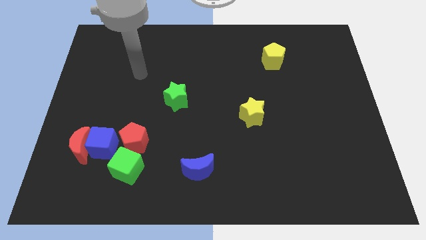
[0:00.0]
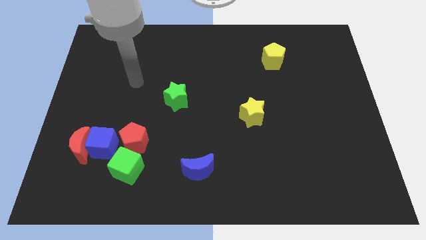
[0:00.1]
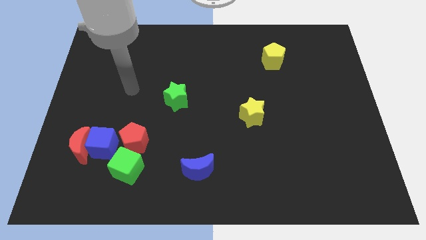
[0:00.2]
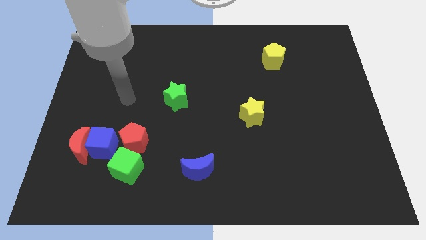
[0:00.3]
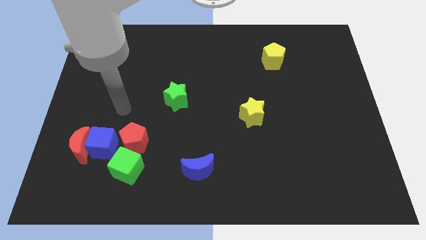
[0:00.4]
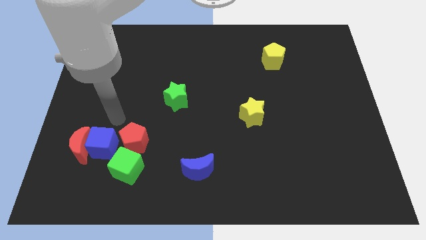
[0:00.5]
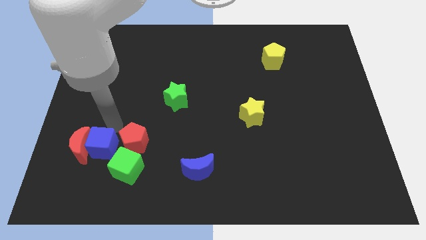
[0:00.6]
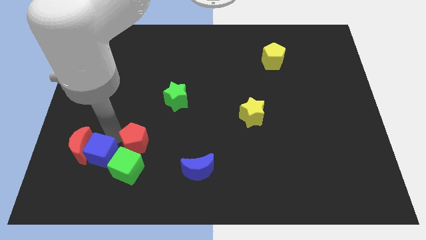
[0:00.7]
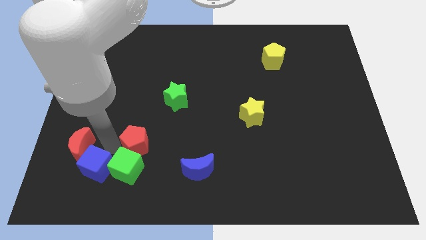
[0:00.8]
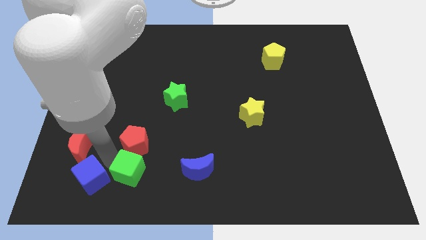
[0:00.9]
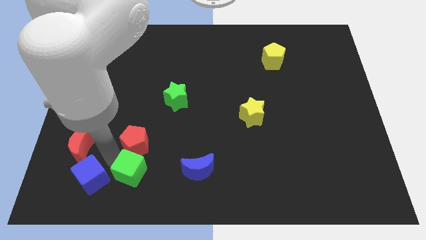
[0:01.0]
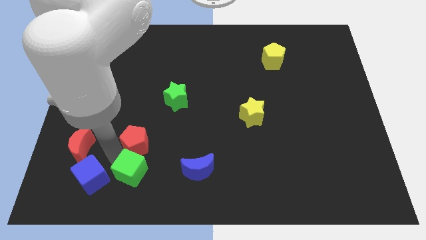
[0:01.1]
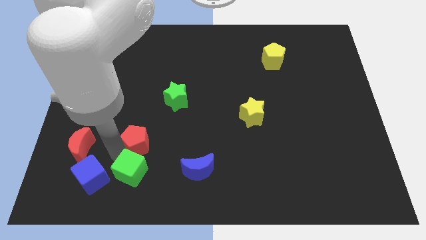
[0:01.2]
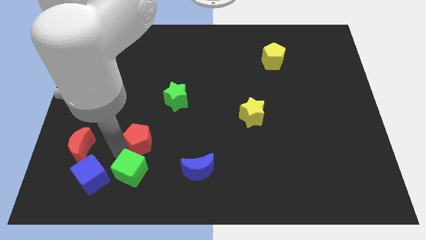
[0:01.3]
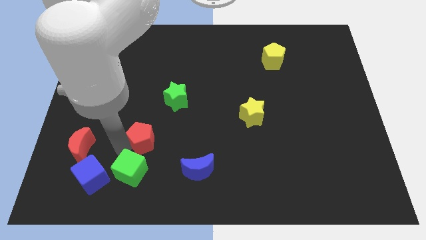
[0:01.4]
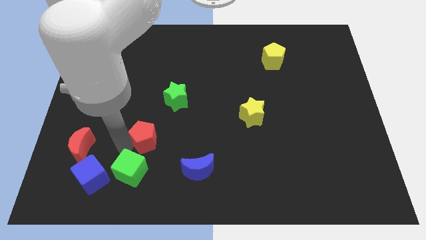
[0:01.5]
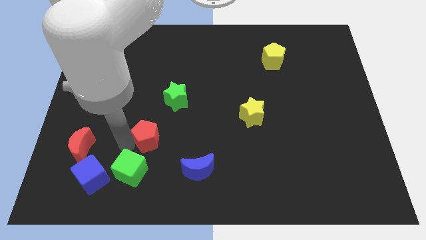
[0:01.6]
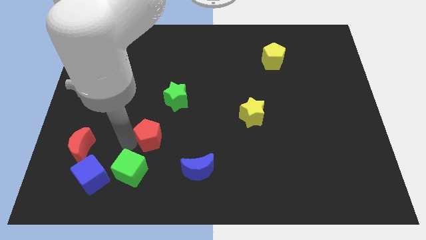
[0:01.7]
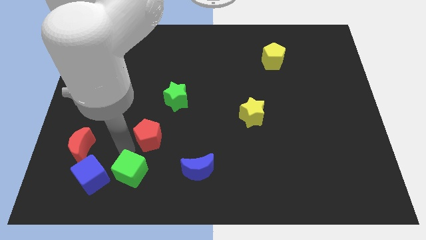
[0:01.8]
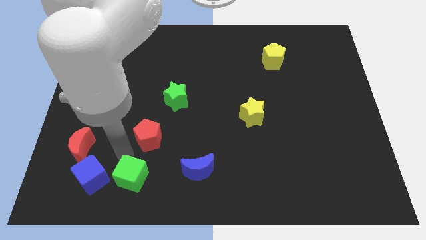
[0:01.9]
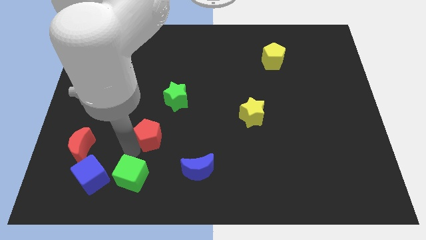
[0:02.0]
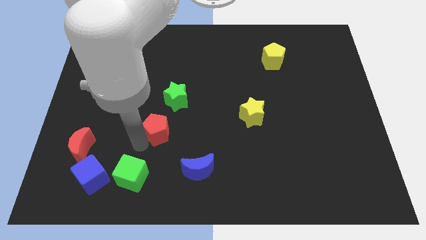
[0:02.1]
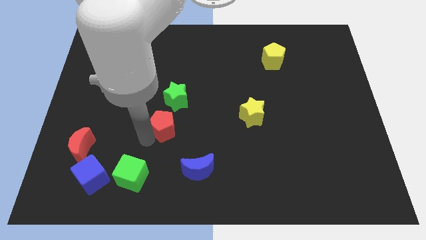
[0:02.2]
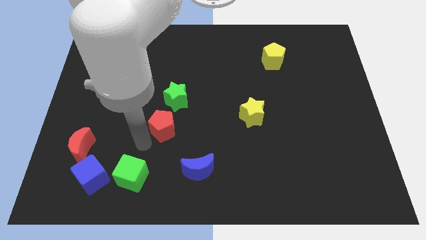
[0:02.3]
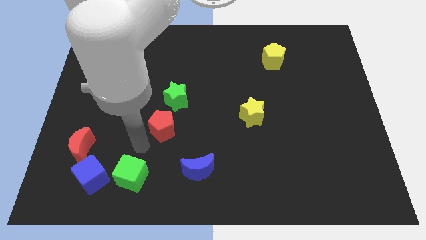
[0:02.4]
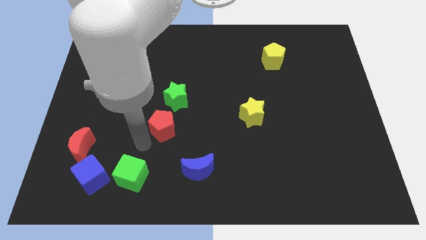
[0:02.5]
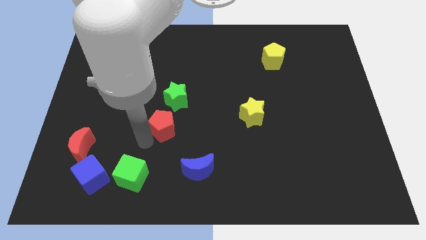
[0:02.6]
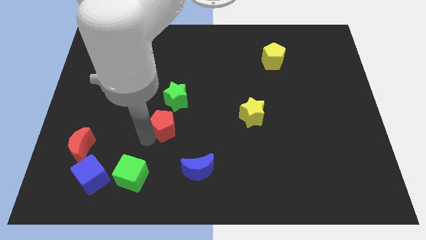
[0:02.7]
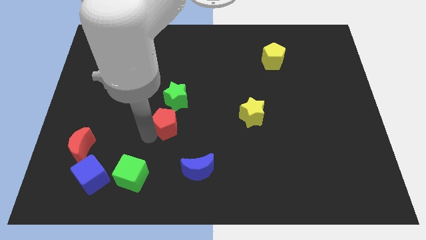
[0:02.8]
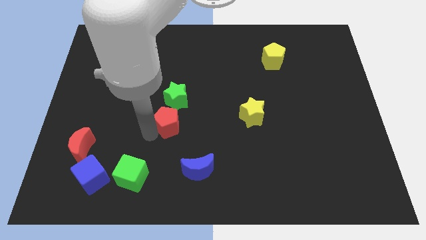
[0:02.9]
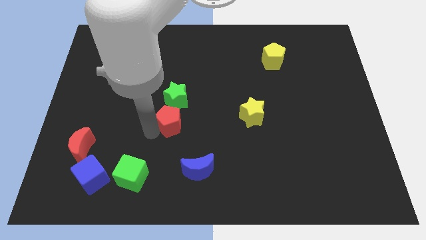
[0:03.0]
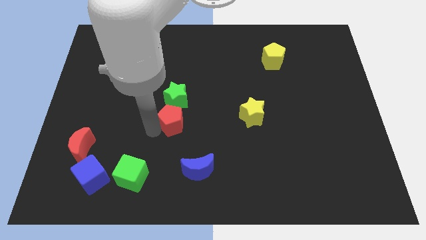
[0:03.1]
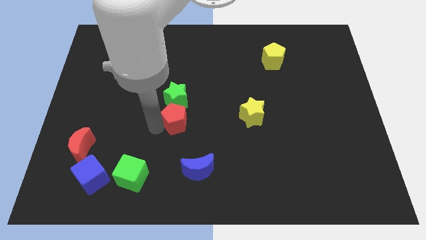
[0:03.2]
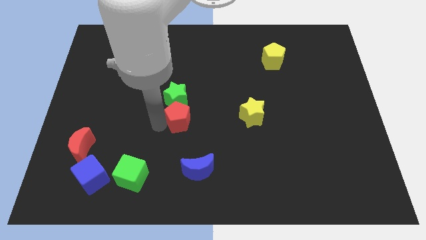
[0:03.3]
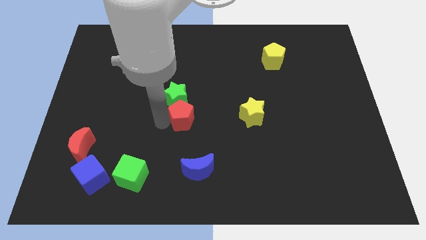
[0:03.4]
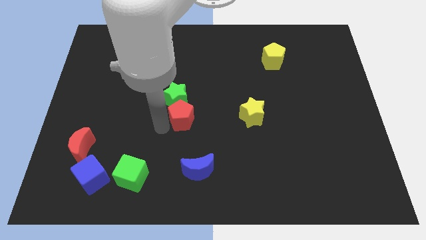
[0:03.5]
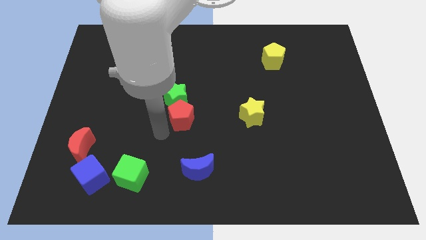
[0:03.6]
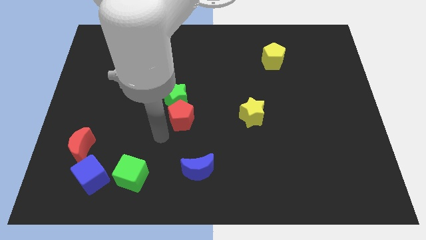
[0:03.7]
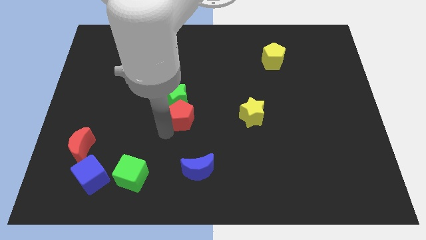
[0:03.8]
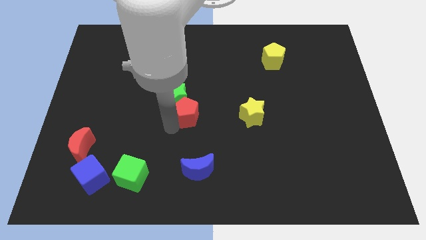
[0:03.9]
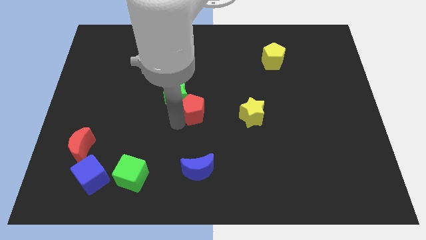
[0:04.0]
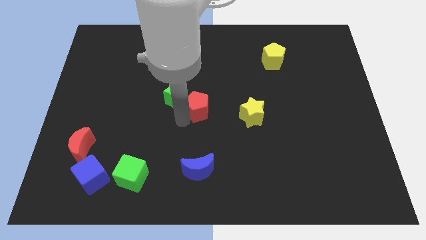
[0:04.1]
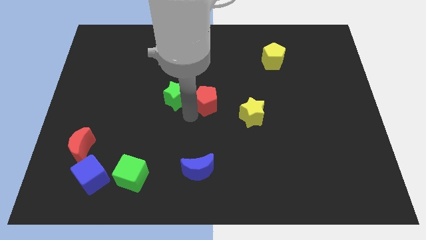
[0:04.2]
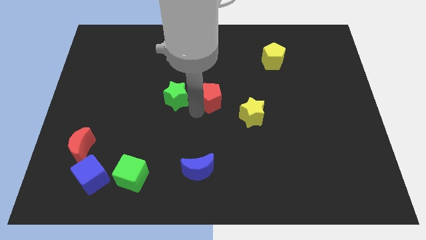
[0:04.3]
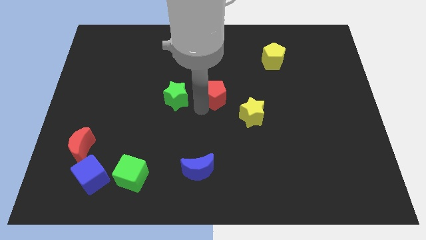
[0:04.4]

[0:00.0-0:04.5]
move the red pentagon upwards and then right

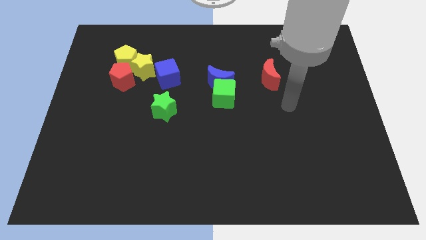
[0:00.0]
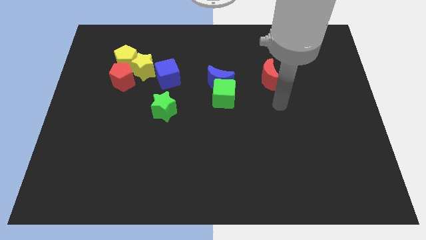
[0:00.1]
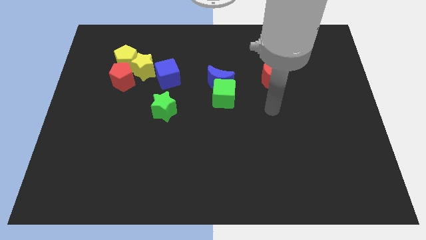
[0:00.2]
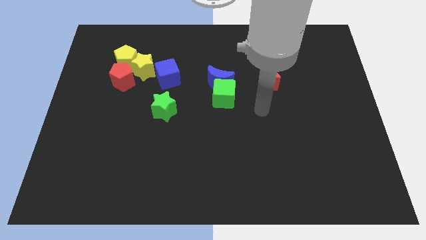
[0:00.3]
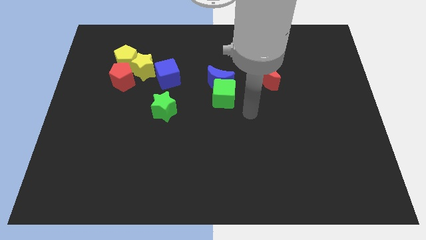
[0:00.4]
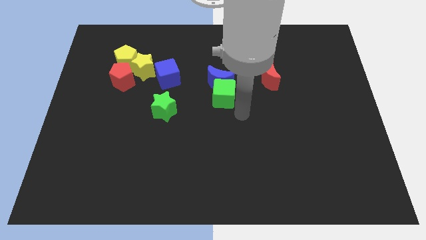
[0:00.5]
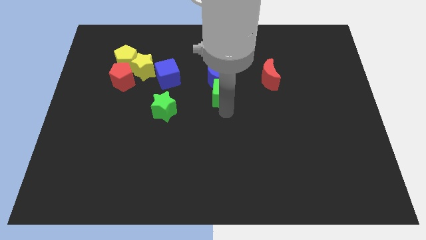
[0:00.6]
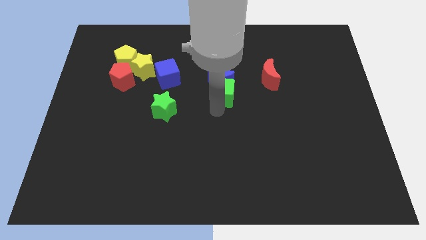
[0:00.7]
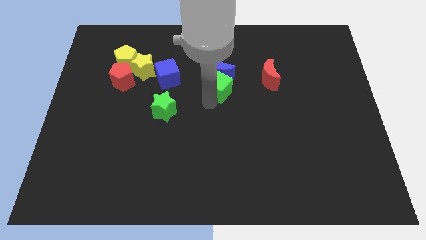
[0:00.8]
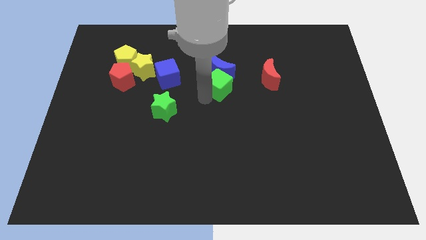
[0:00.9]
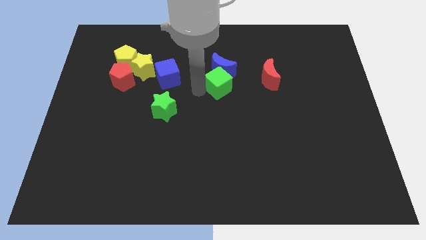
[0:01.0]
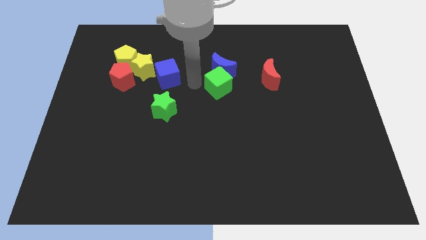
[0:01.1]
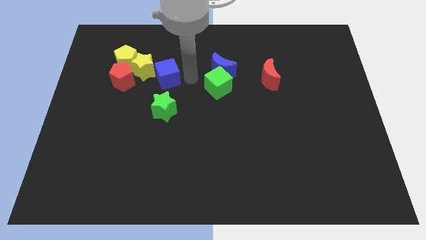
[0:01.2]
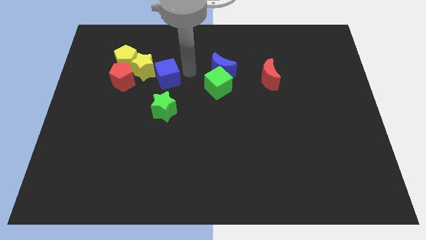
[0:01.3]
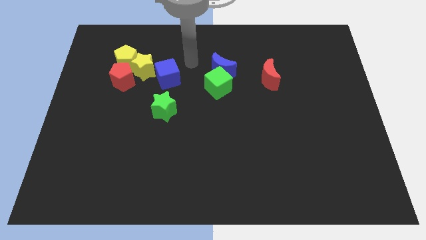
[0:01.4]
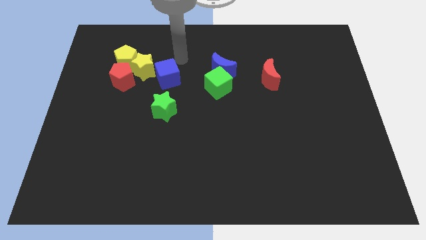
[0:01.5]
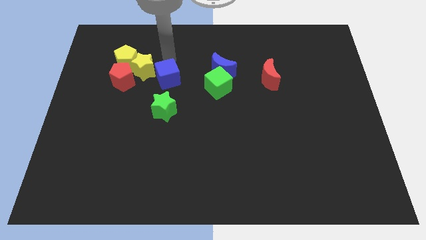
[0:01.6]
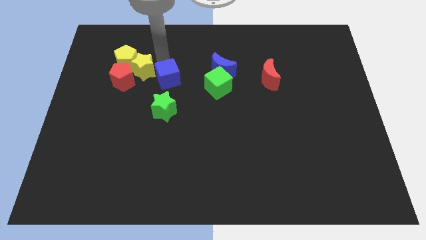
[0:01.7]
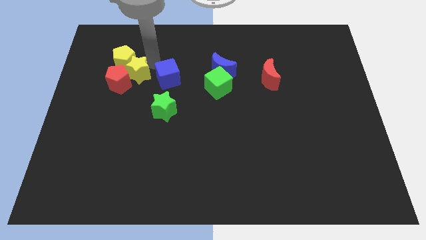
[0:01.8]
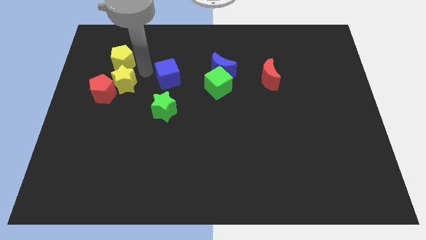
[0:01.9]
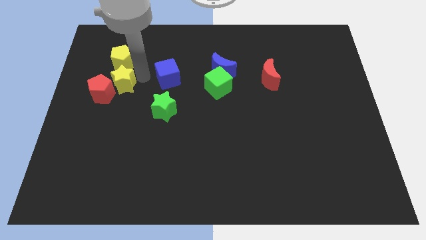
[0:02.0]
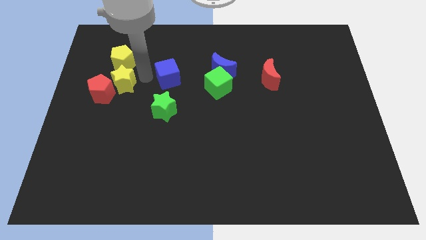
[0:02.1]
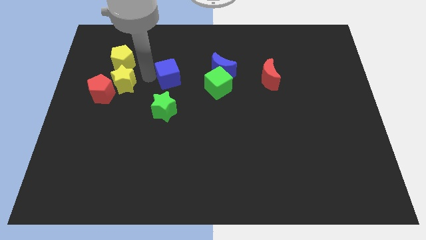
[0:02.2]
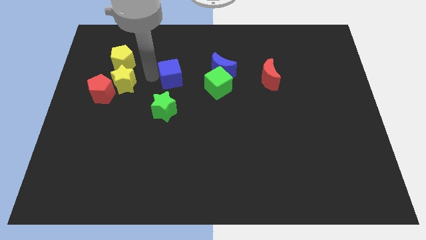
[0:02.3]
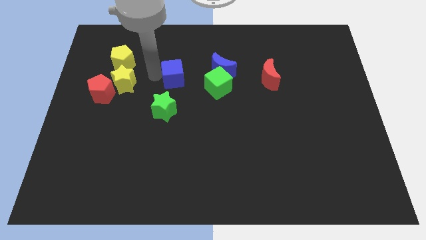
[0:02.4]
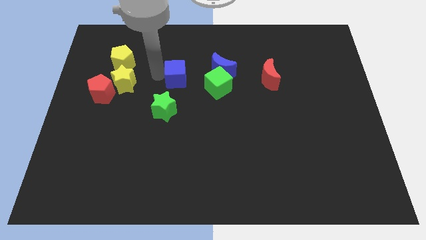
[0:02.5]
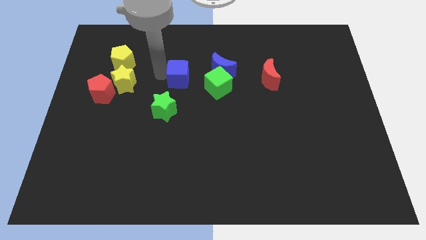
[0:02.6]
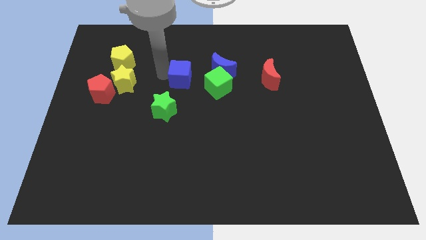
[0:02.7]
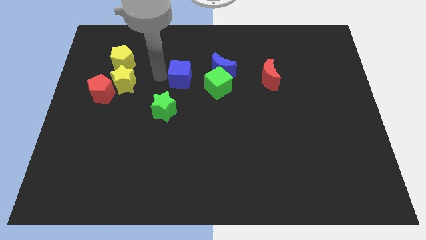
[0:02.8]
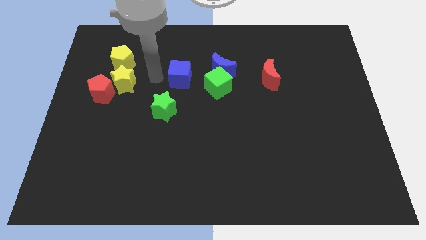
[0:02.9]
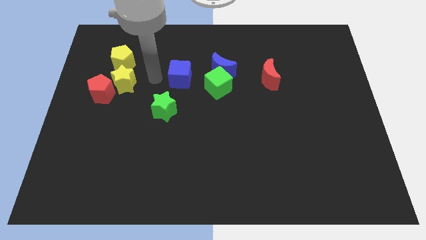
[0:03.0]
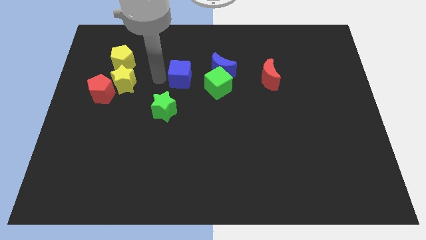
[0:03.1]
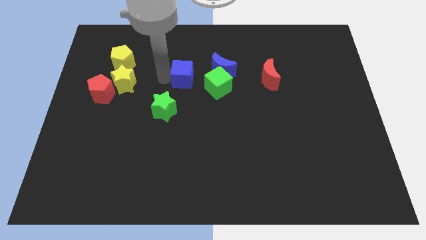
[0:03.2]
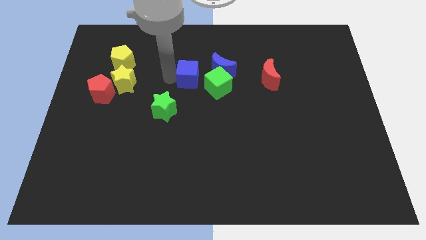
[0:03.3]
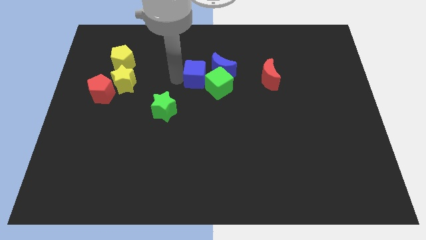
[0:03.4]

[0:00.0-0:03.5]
push the blue cube a bit right
